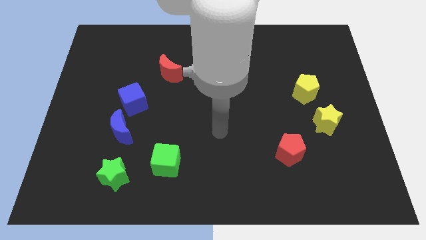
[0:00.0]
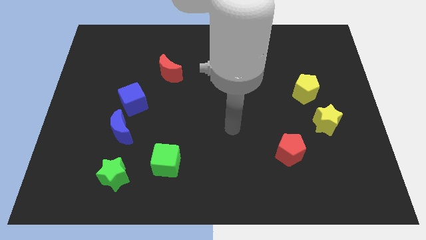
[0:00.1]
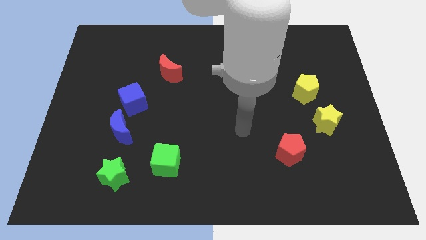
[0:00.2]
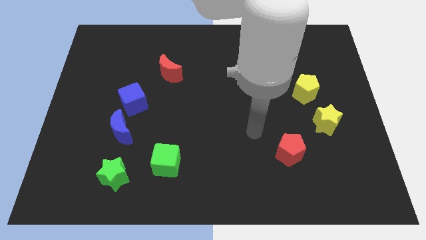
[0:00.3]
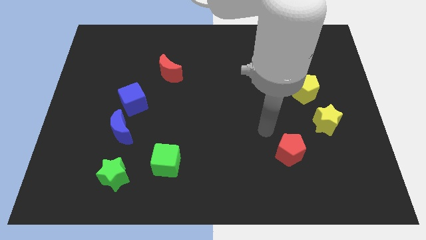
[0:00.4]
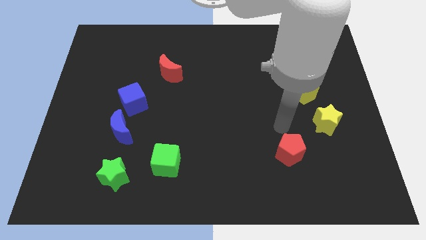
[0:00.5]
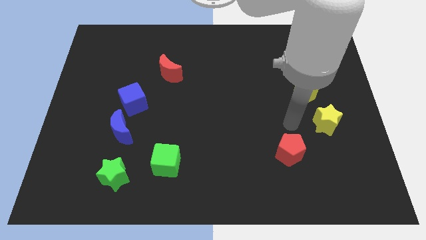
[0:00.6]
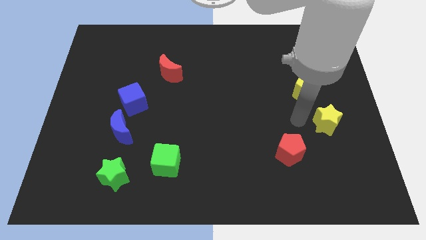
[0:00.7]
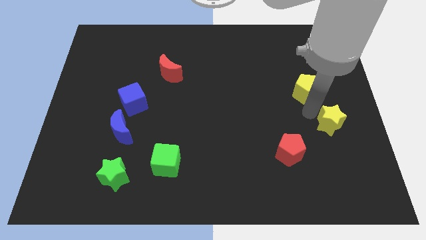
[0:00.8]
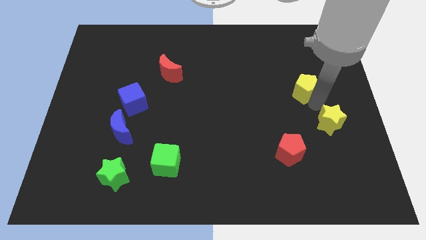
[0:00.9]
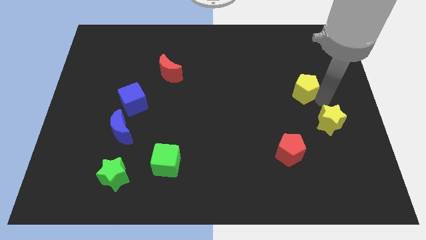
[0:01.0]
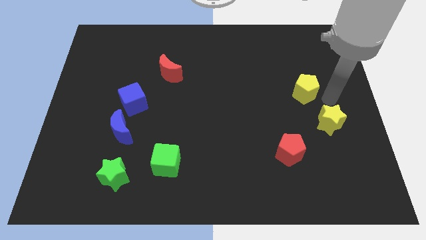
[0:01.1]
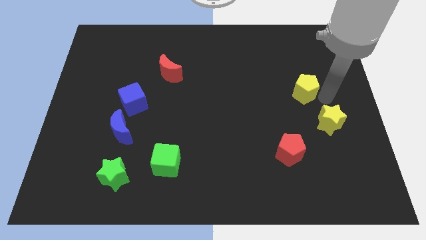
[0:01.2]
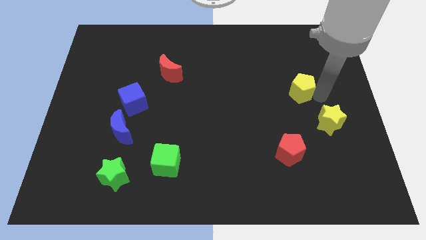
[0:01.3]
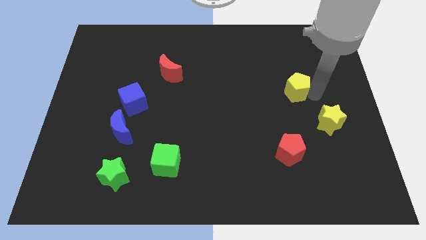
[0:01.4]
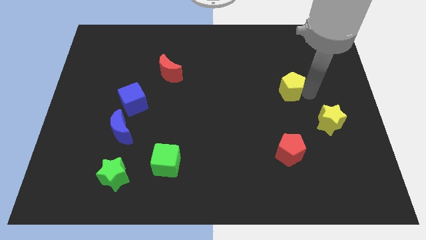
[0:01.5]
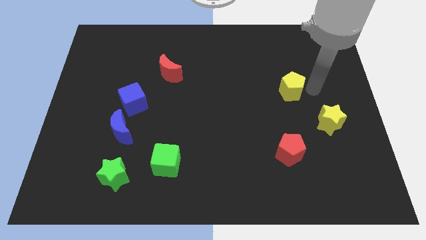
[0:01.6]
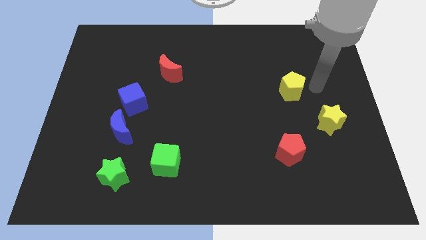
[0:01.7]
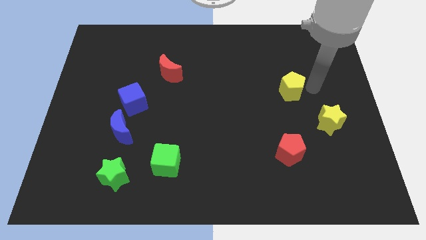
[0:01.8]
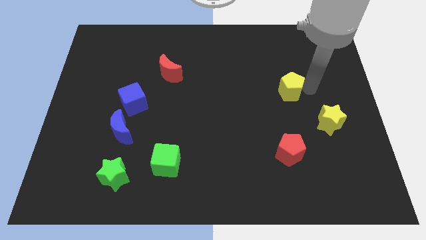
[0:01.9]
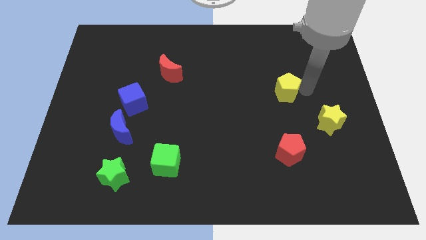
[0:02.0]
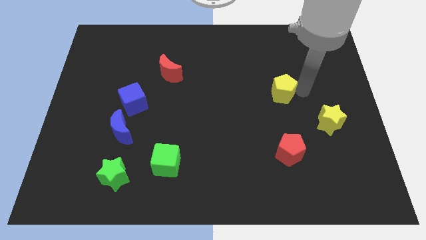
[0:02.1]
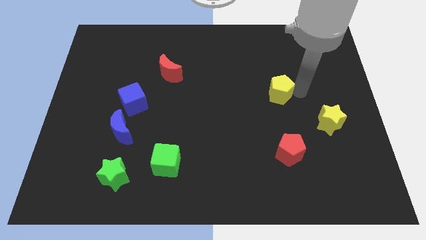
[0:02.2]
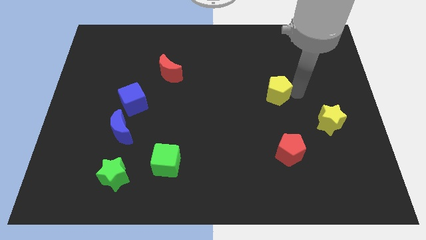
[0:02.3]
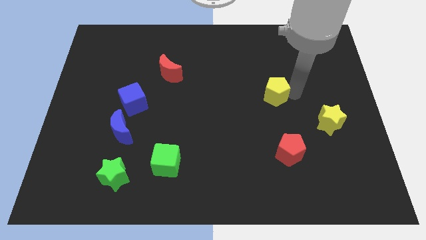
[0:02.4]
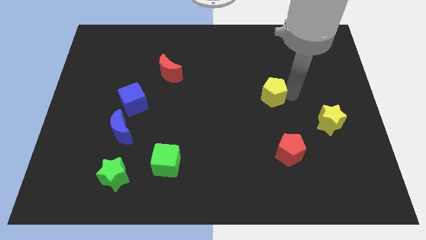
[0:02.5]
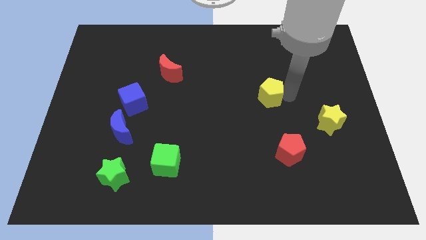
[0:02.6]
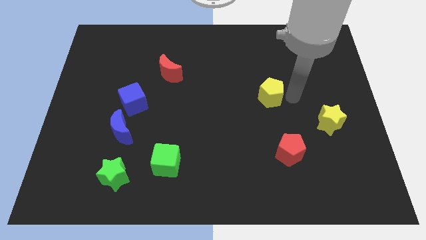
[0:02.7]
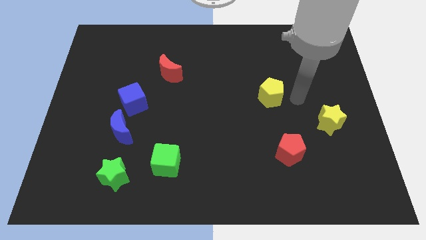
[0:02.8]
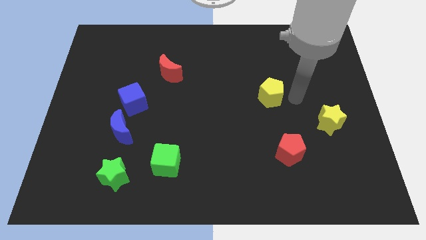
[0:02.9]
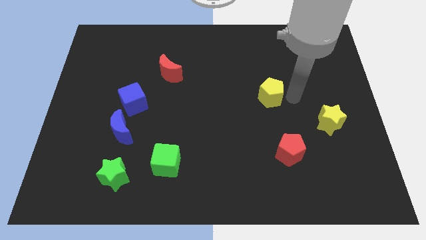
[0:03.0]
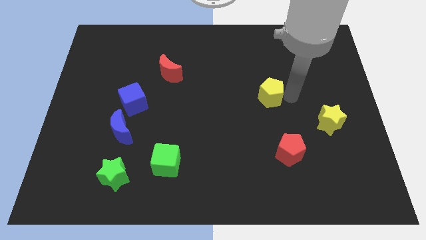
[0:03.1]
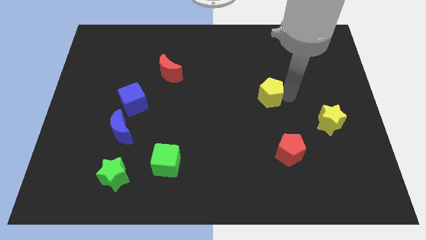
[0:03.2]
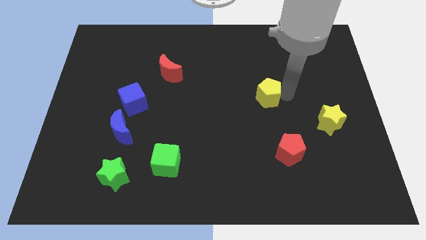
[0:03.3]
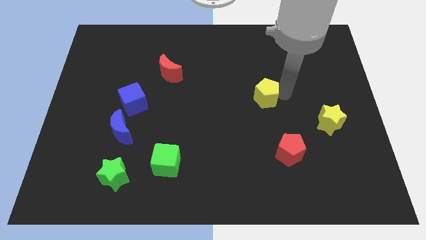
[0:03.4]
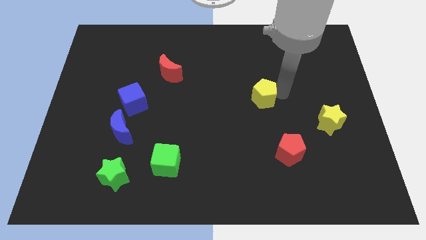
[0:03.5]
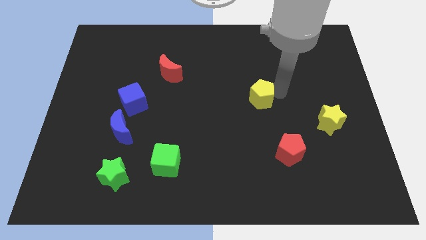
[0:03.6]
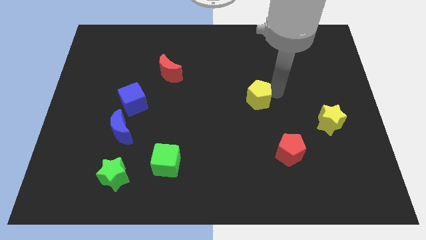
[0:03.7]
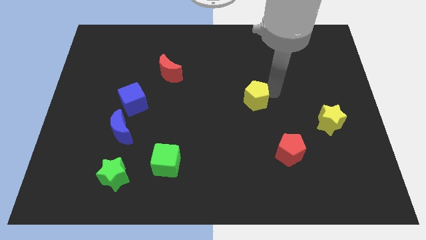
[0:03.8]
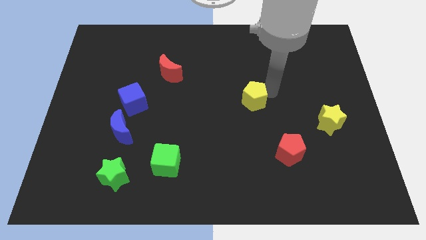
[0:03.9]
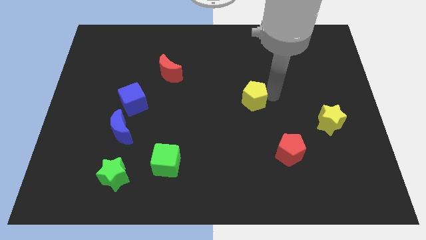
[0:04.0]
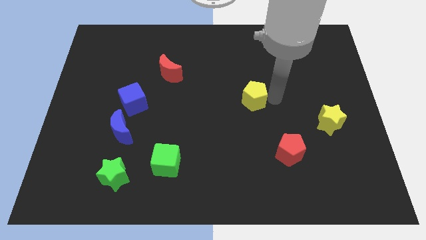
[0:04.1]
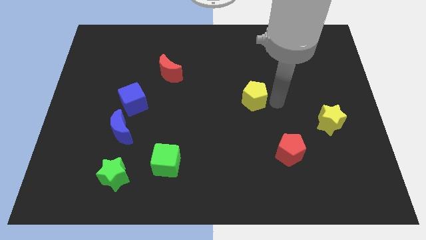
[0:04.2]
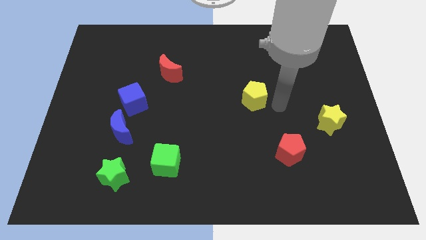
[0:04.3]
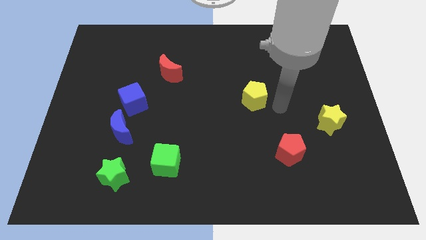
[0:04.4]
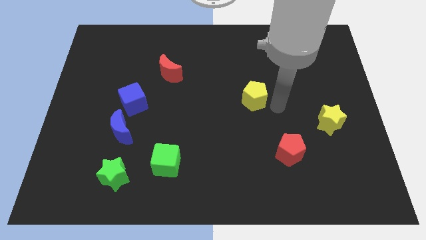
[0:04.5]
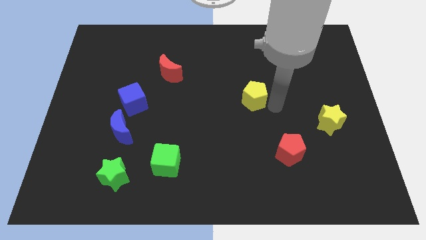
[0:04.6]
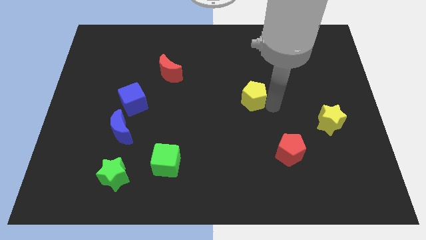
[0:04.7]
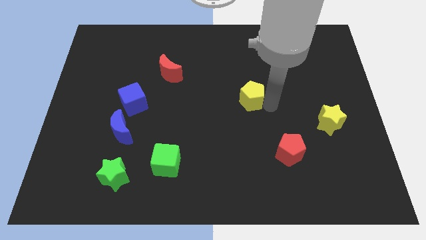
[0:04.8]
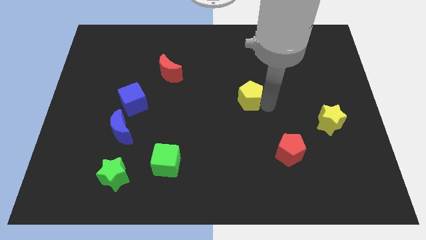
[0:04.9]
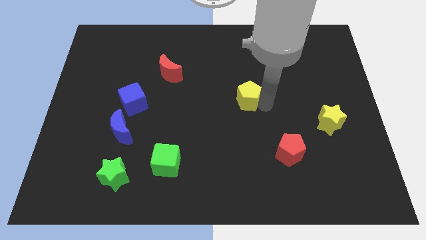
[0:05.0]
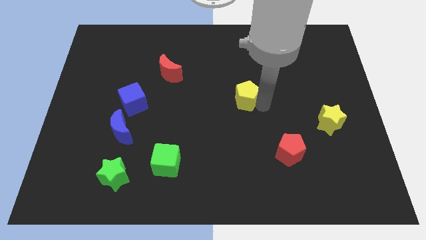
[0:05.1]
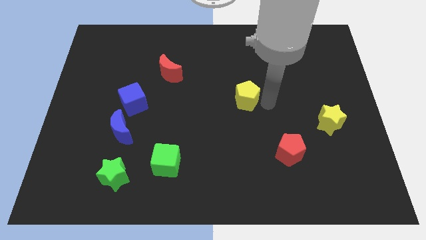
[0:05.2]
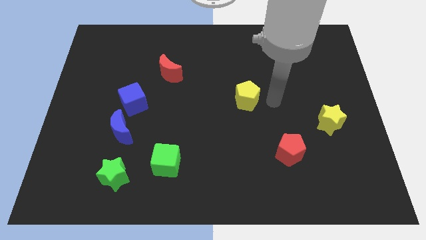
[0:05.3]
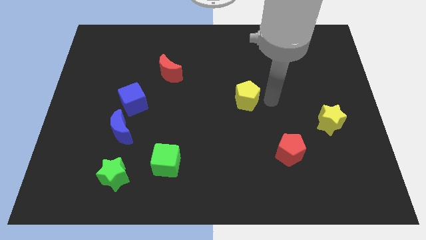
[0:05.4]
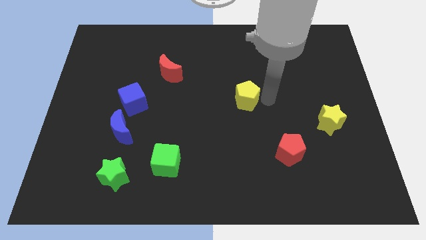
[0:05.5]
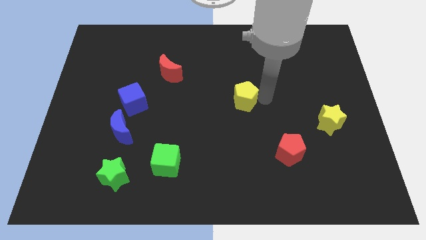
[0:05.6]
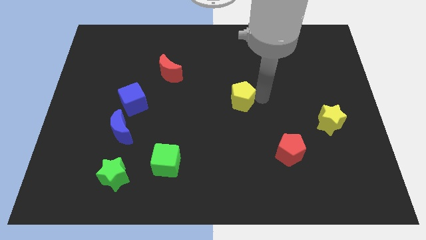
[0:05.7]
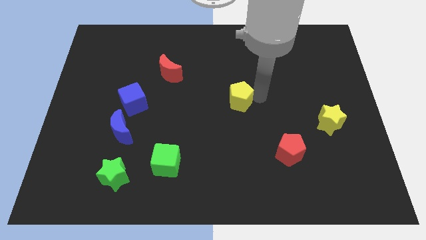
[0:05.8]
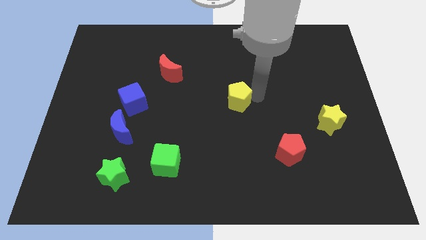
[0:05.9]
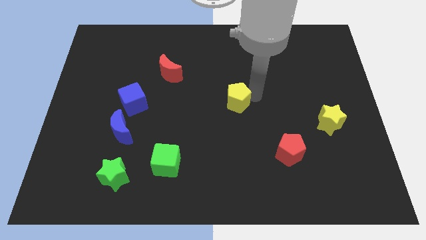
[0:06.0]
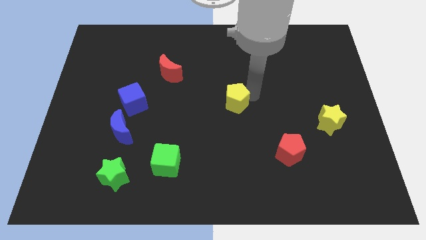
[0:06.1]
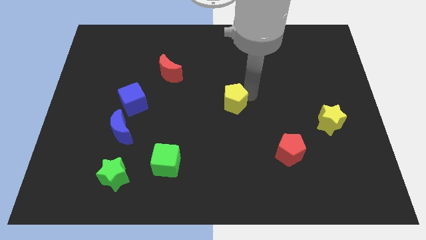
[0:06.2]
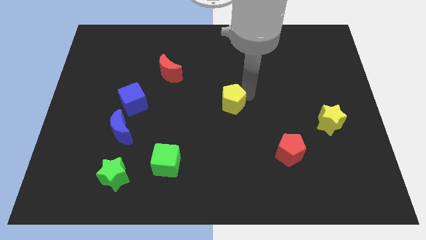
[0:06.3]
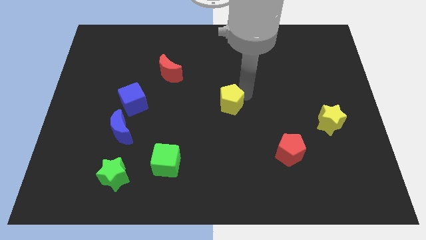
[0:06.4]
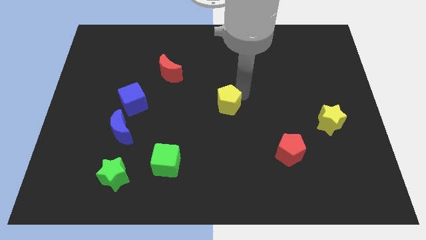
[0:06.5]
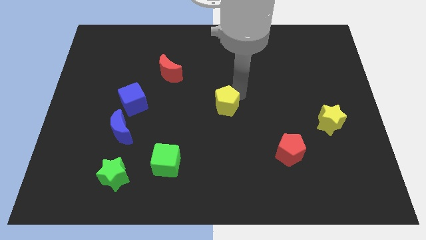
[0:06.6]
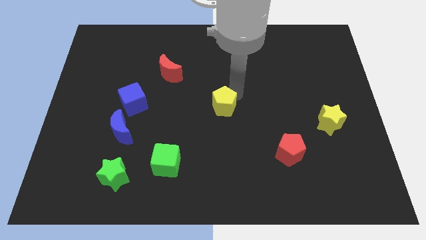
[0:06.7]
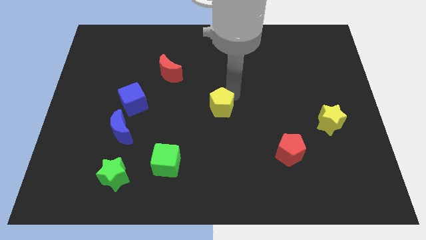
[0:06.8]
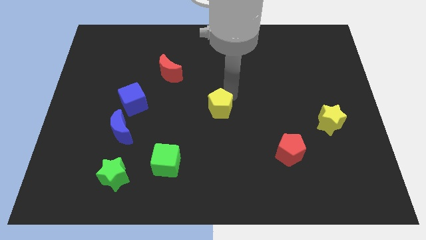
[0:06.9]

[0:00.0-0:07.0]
push the yellow pentagon to the left

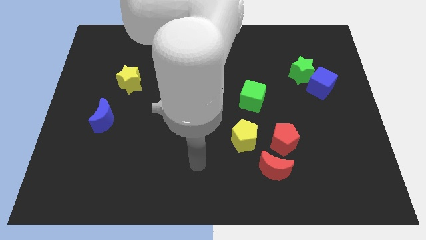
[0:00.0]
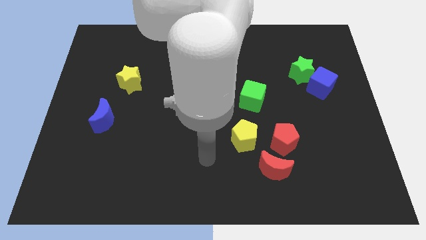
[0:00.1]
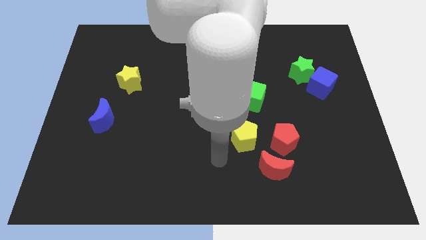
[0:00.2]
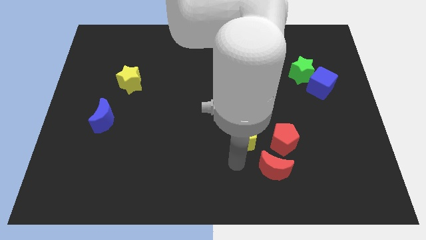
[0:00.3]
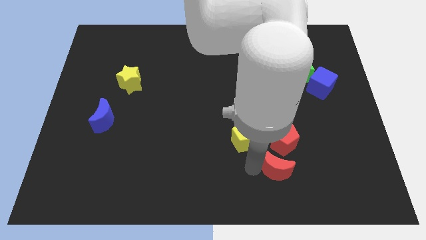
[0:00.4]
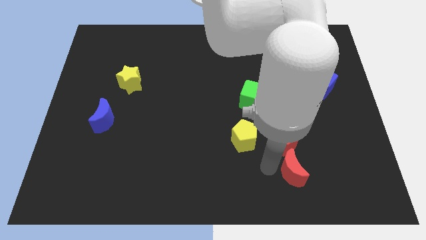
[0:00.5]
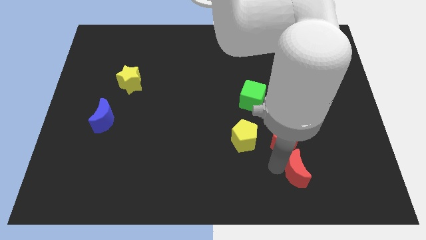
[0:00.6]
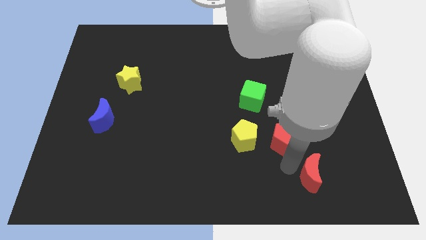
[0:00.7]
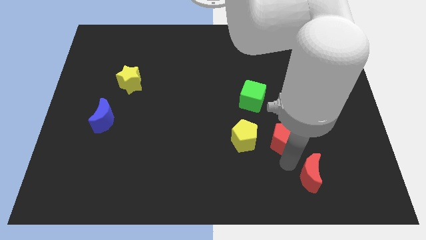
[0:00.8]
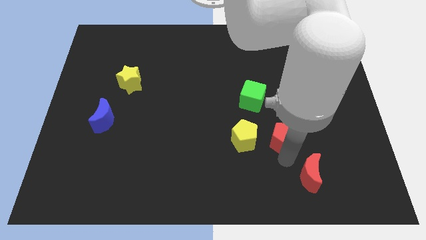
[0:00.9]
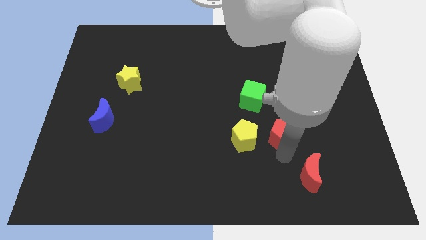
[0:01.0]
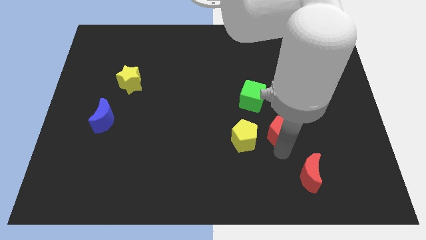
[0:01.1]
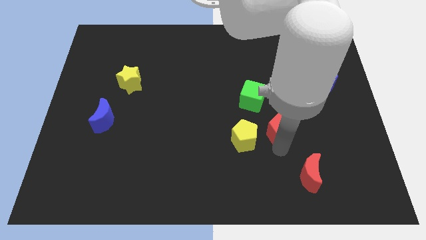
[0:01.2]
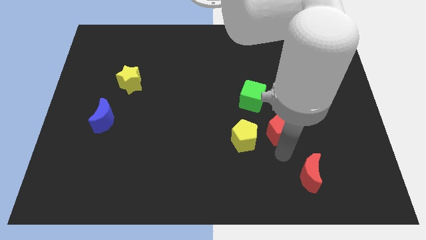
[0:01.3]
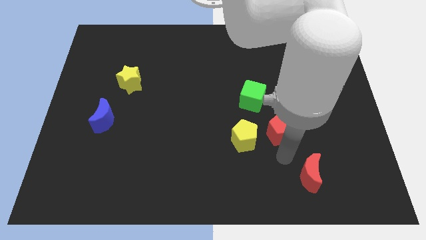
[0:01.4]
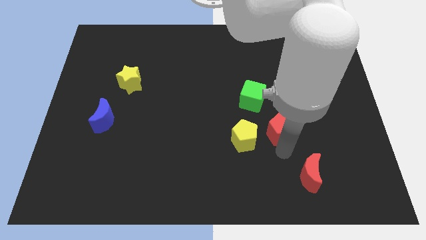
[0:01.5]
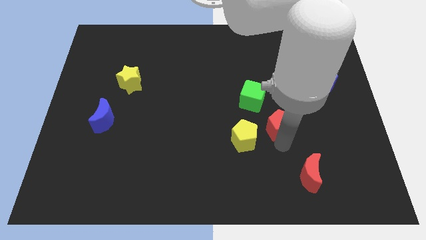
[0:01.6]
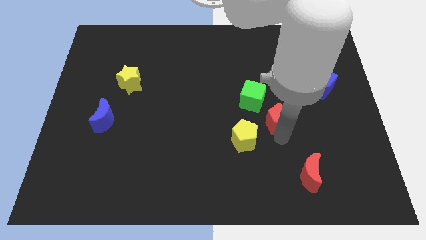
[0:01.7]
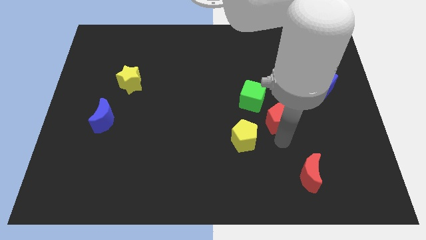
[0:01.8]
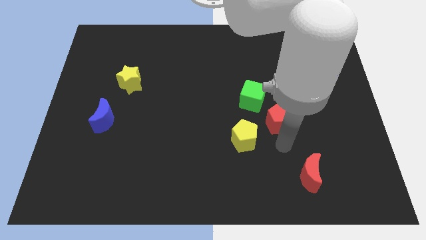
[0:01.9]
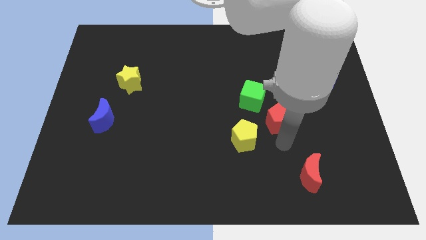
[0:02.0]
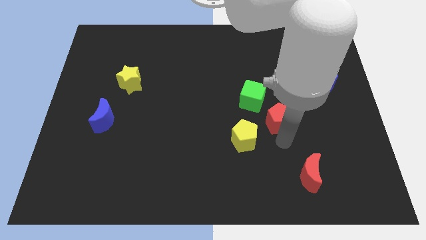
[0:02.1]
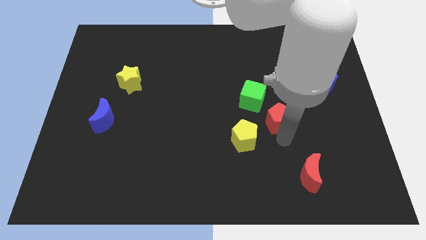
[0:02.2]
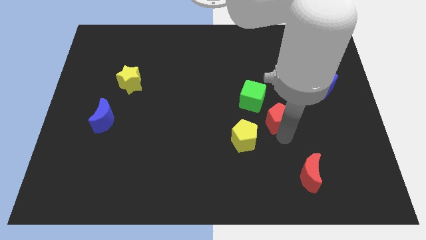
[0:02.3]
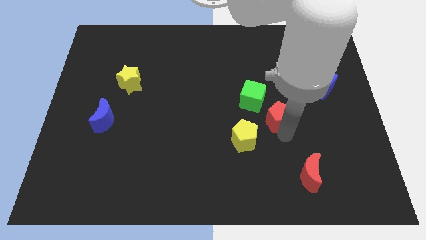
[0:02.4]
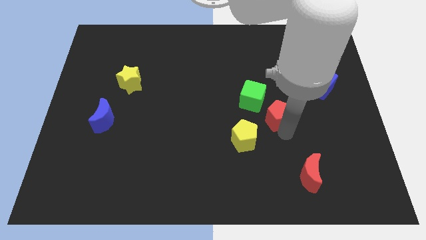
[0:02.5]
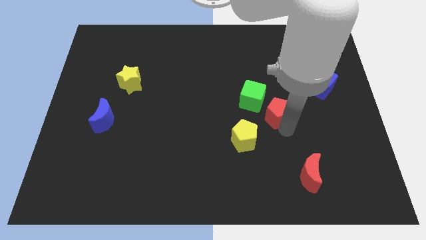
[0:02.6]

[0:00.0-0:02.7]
push the red pentagon somewhat upwards
